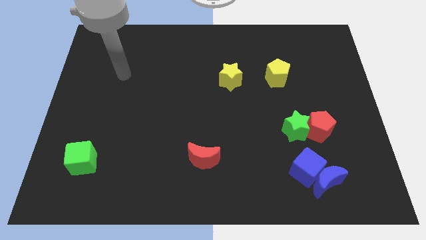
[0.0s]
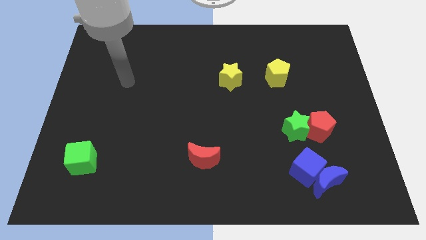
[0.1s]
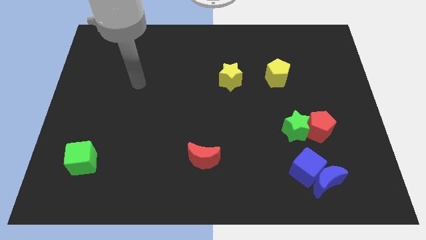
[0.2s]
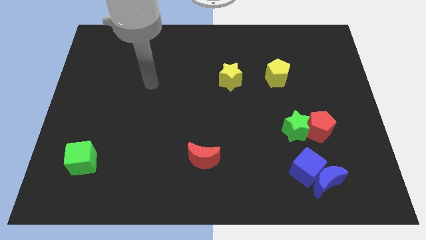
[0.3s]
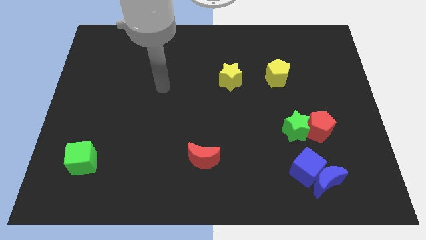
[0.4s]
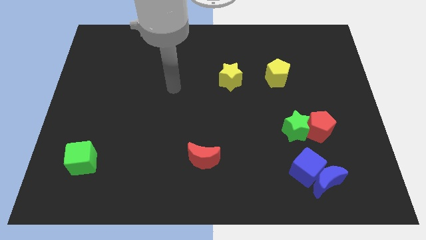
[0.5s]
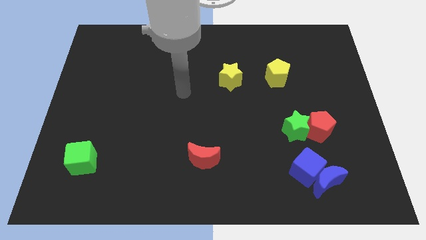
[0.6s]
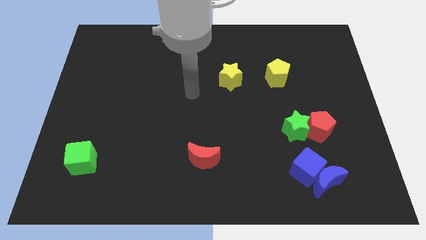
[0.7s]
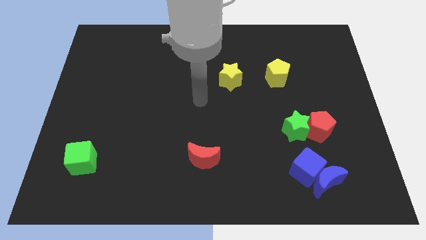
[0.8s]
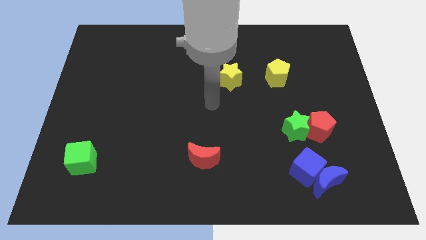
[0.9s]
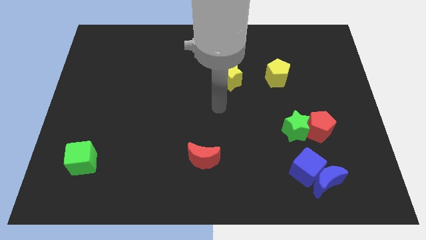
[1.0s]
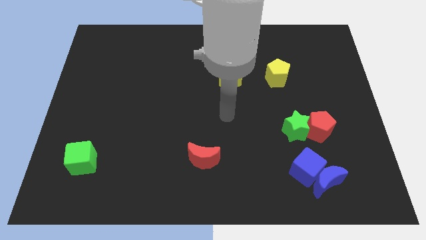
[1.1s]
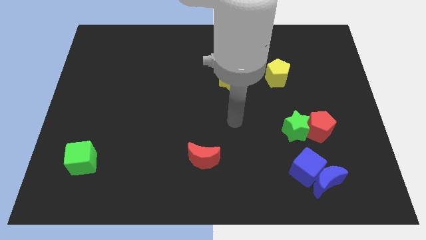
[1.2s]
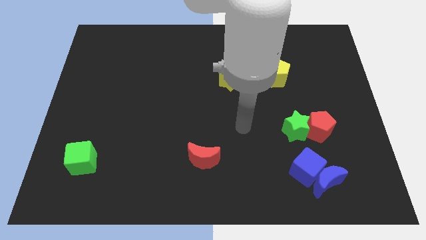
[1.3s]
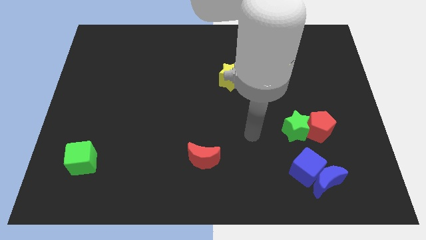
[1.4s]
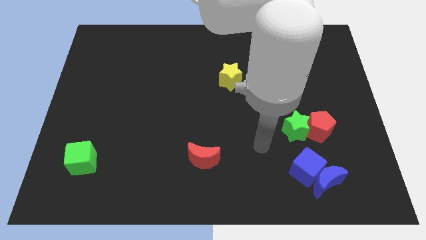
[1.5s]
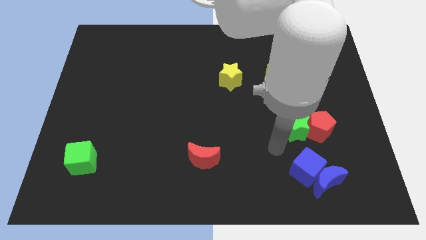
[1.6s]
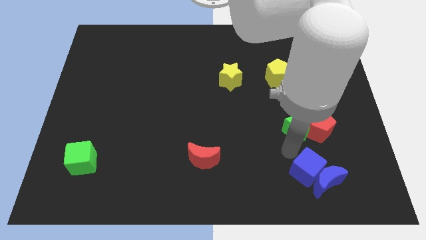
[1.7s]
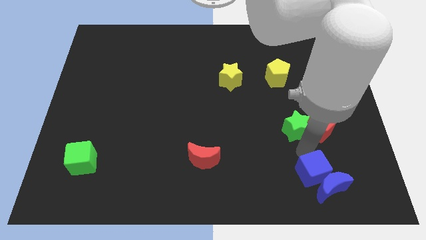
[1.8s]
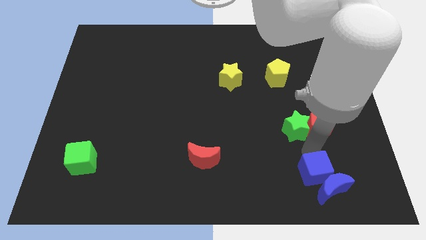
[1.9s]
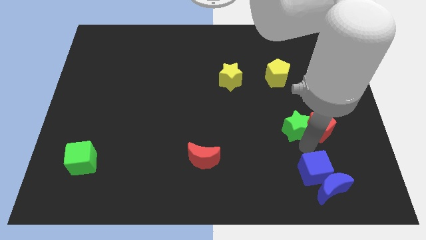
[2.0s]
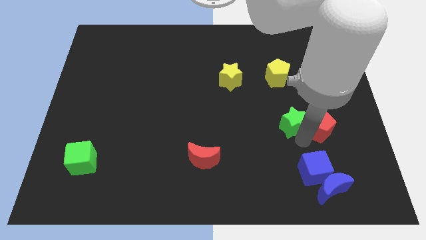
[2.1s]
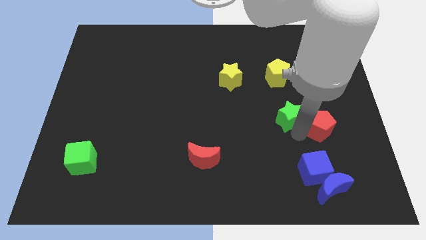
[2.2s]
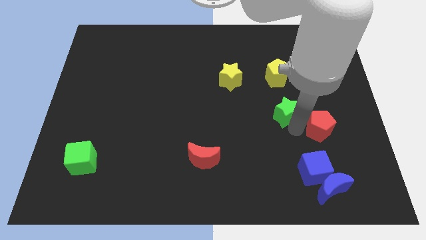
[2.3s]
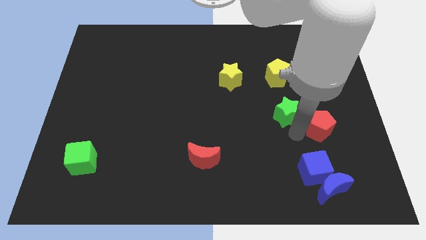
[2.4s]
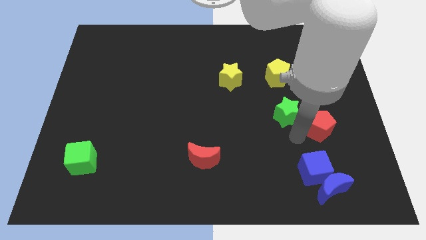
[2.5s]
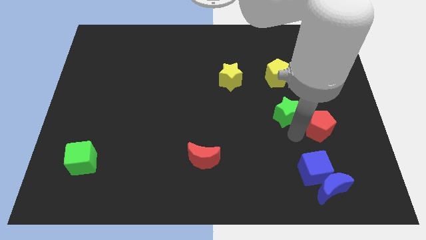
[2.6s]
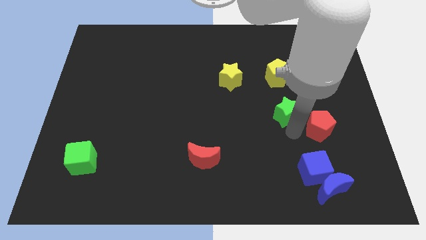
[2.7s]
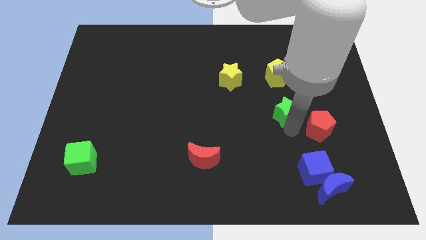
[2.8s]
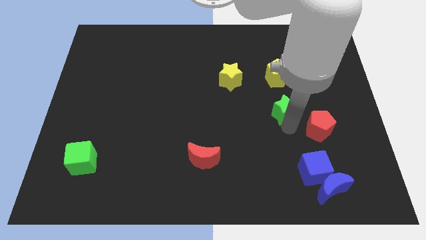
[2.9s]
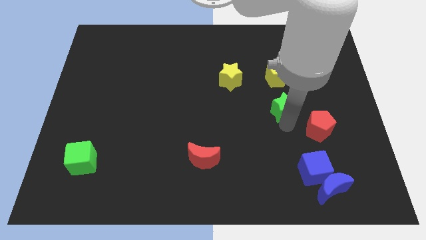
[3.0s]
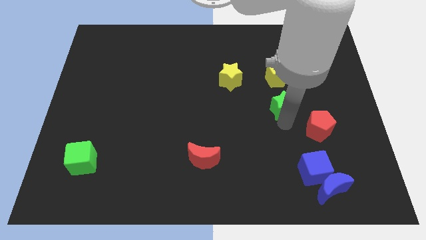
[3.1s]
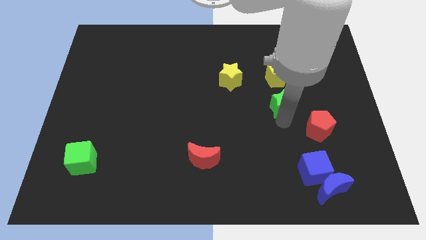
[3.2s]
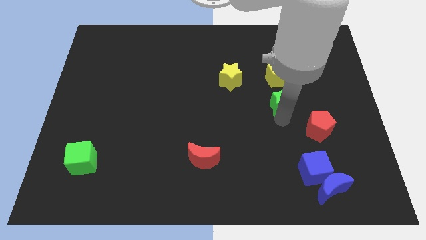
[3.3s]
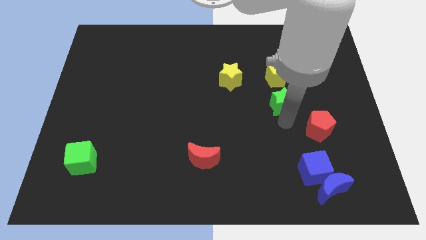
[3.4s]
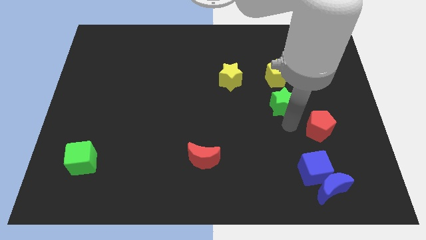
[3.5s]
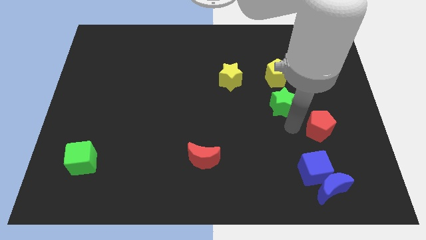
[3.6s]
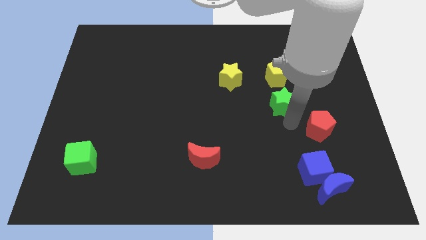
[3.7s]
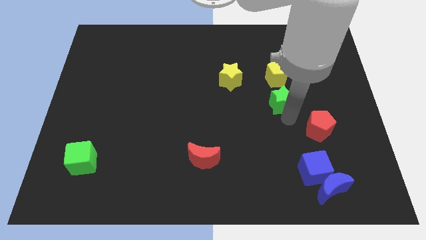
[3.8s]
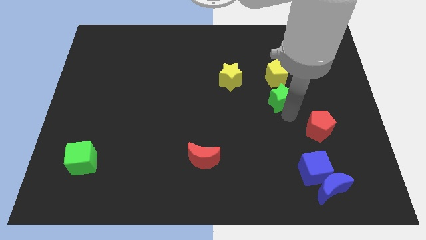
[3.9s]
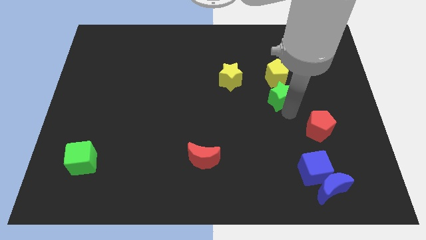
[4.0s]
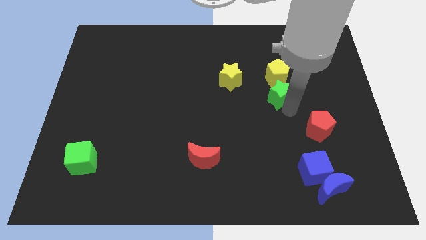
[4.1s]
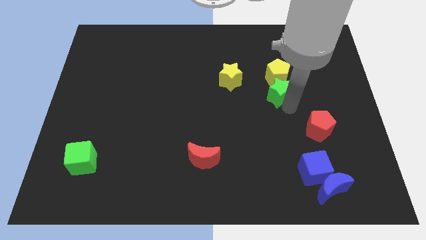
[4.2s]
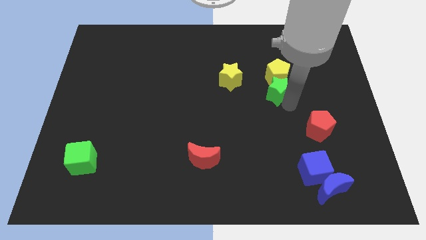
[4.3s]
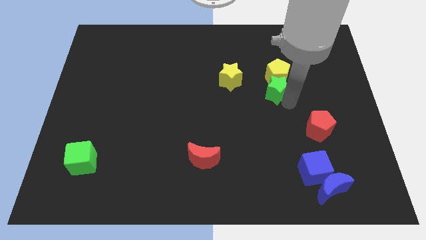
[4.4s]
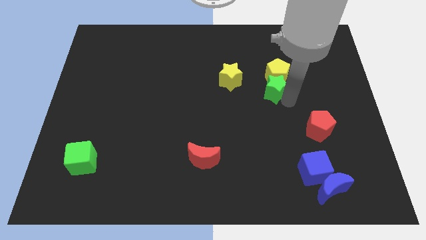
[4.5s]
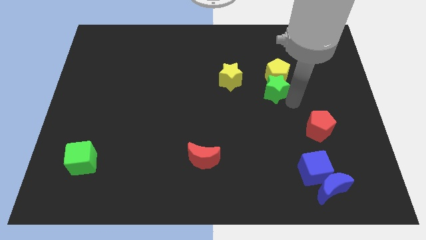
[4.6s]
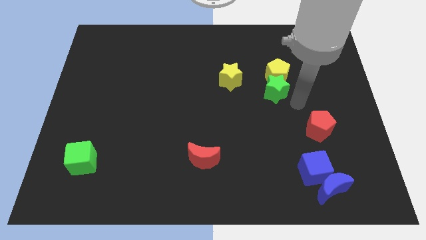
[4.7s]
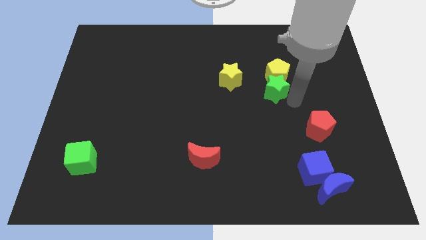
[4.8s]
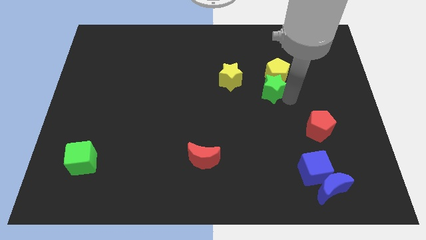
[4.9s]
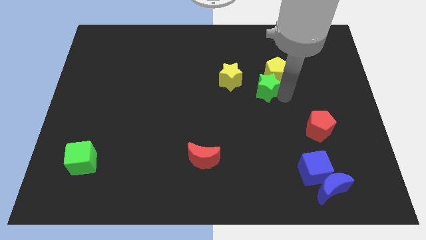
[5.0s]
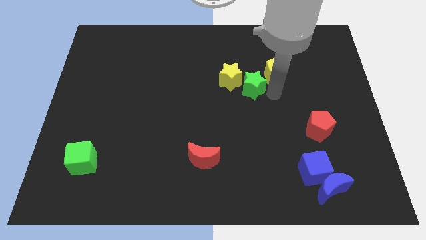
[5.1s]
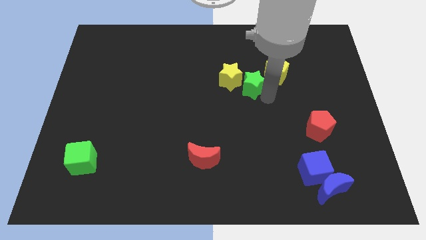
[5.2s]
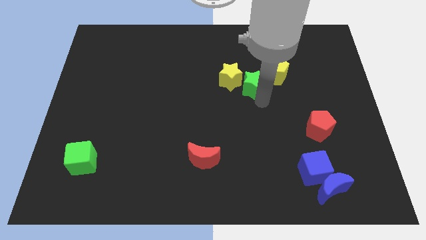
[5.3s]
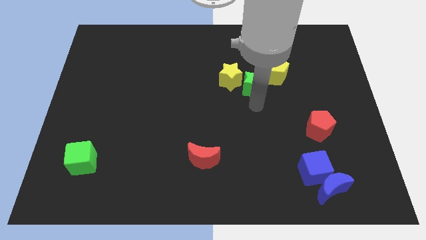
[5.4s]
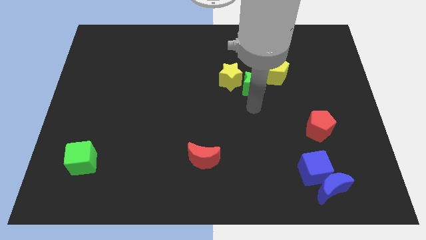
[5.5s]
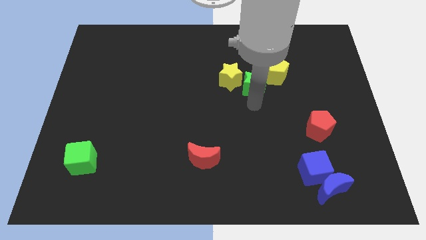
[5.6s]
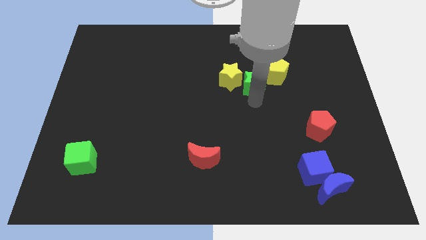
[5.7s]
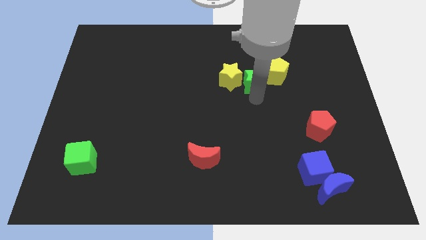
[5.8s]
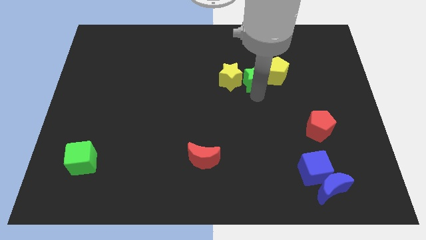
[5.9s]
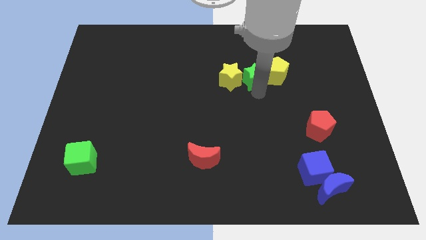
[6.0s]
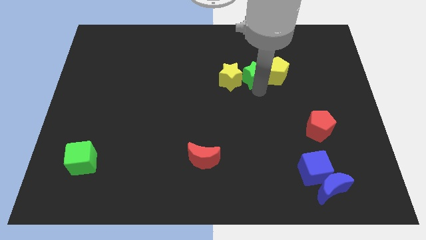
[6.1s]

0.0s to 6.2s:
put the green star diagonally up and to the left of the yellow pentagon

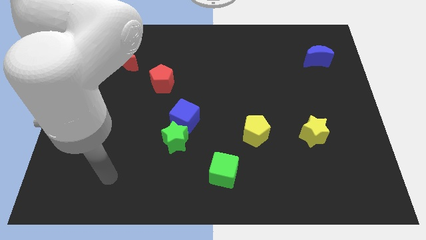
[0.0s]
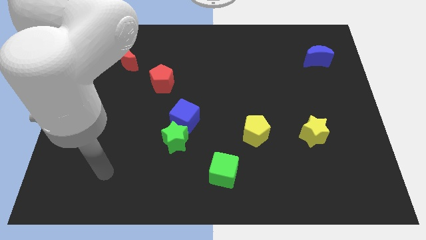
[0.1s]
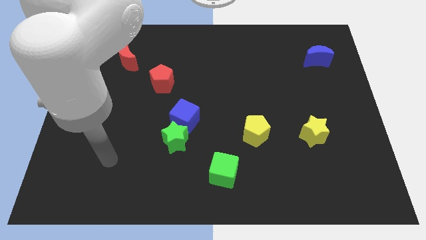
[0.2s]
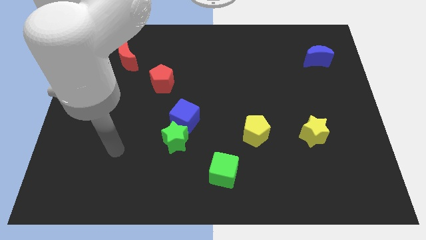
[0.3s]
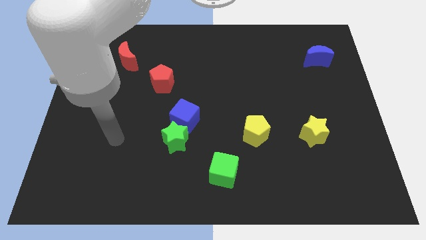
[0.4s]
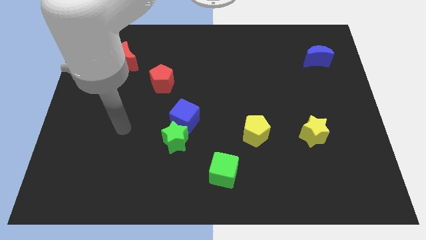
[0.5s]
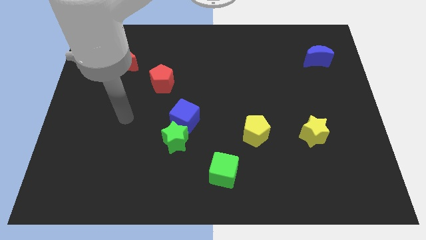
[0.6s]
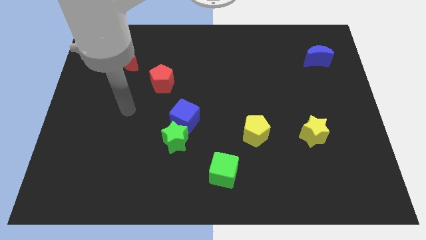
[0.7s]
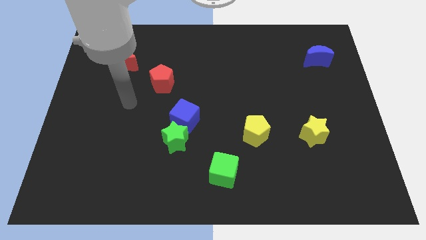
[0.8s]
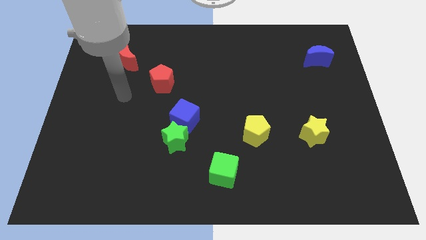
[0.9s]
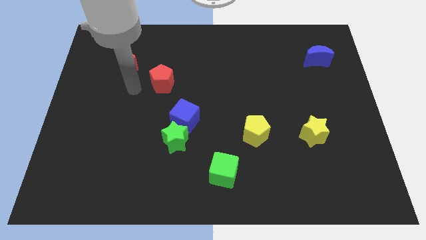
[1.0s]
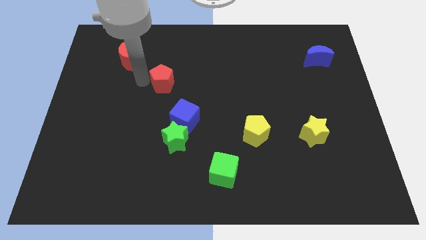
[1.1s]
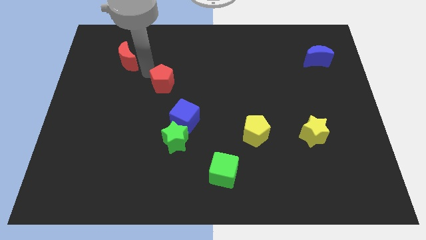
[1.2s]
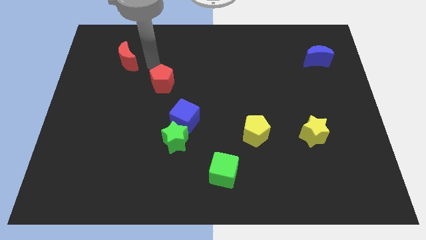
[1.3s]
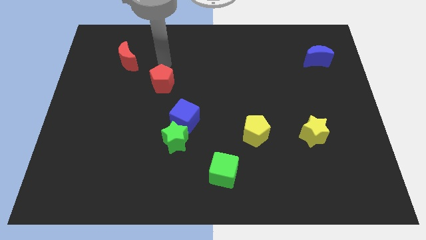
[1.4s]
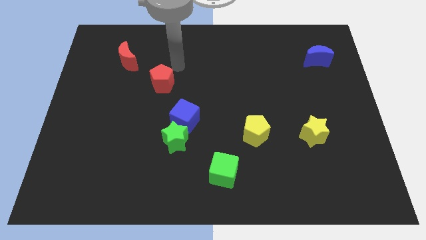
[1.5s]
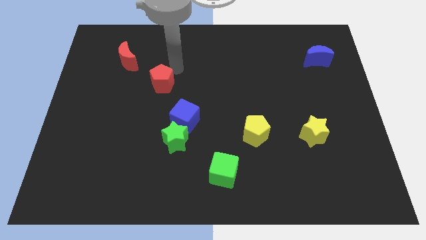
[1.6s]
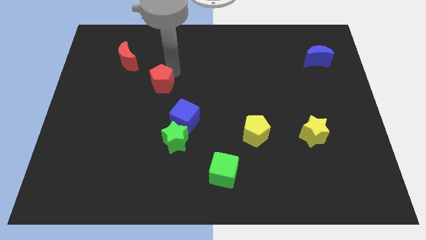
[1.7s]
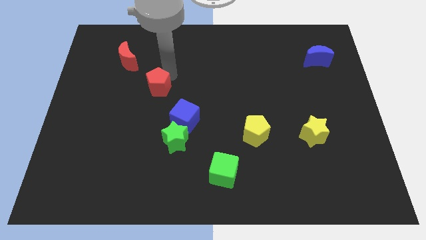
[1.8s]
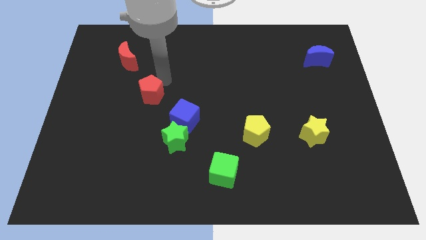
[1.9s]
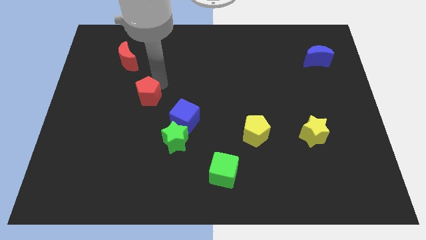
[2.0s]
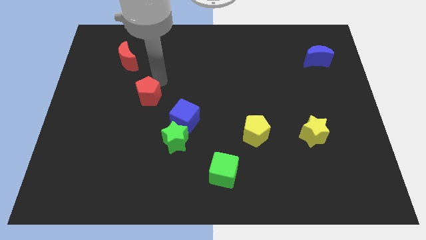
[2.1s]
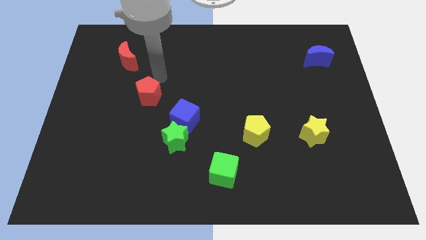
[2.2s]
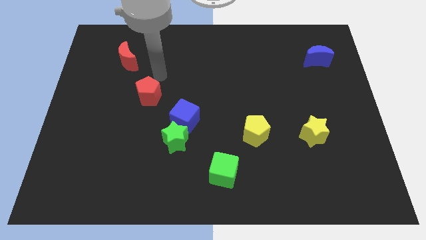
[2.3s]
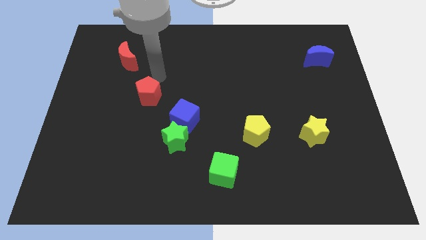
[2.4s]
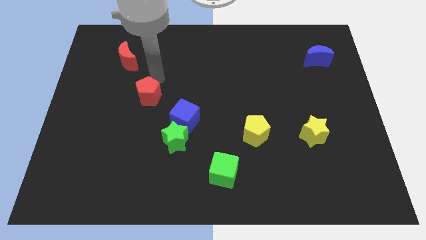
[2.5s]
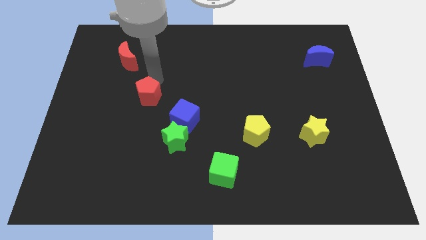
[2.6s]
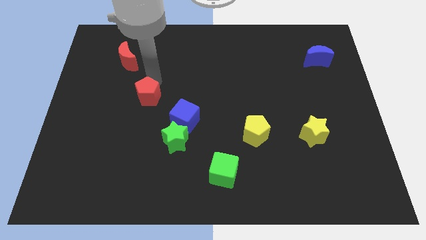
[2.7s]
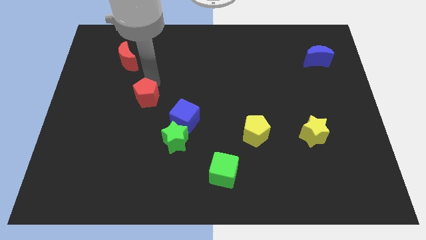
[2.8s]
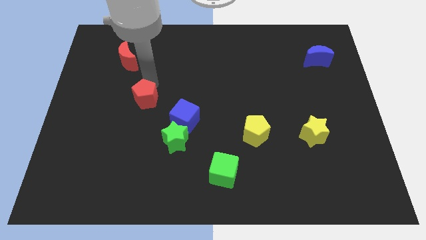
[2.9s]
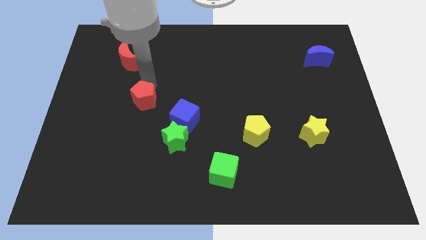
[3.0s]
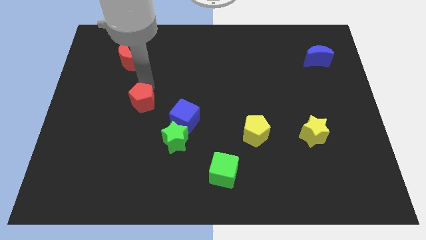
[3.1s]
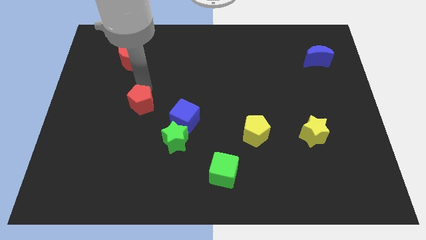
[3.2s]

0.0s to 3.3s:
push the red pentagon left of the blue cube
